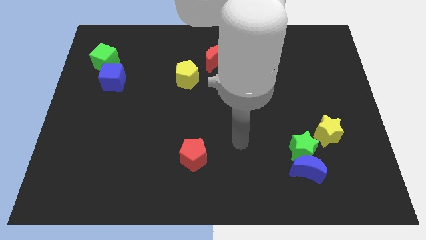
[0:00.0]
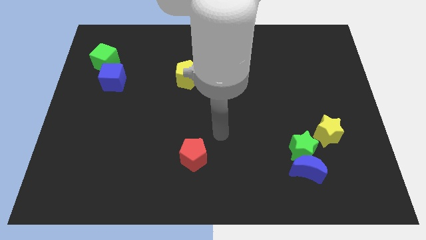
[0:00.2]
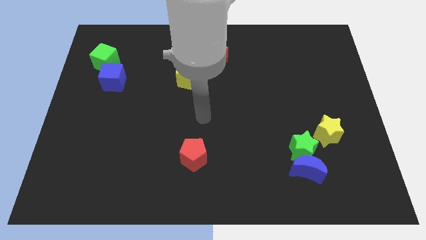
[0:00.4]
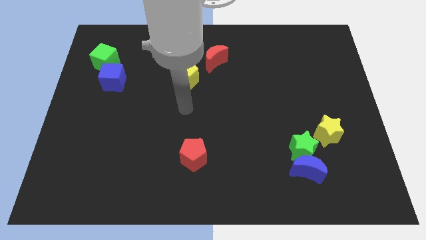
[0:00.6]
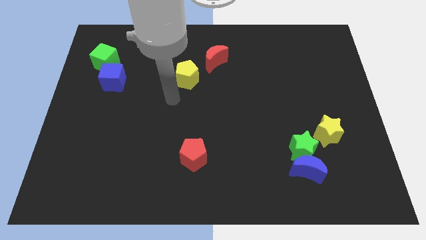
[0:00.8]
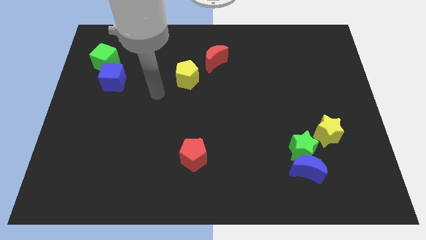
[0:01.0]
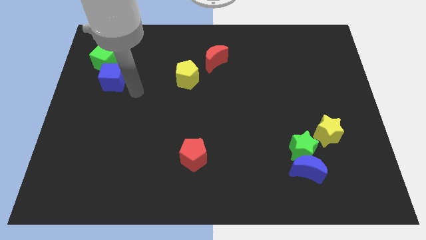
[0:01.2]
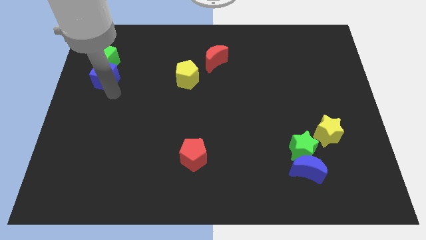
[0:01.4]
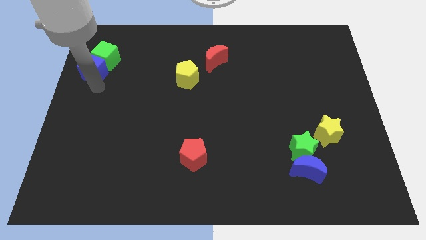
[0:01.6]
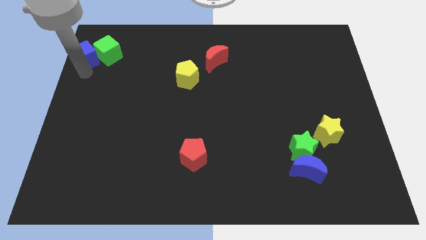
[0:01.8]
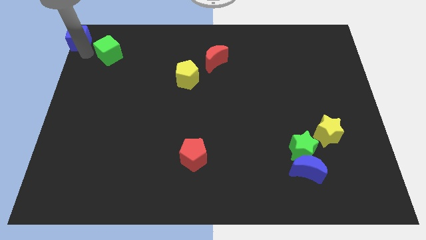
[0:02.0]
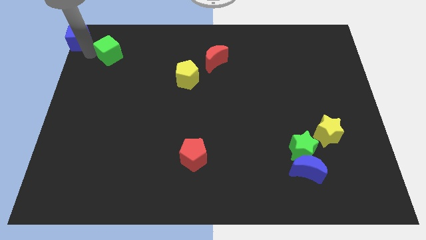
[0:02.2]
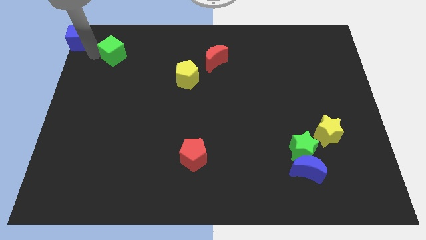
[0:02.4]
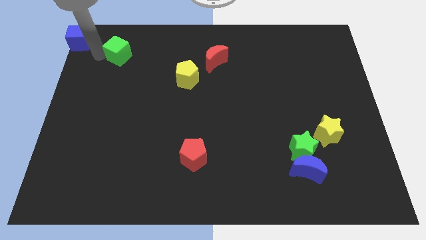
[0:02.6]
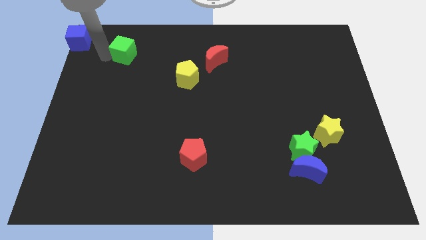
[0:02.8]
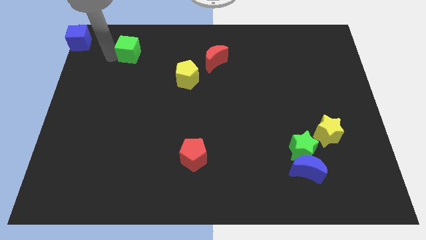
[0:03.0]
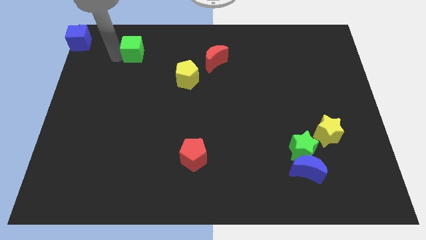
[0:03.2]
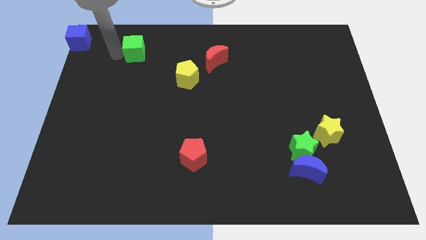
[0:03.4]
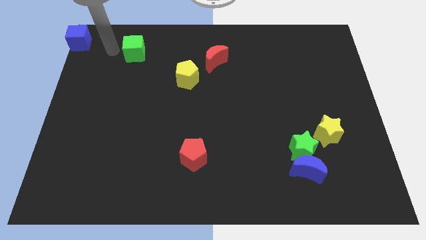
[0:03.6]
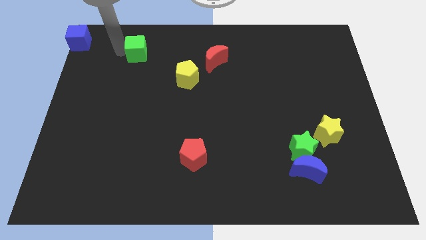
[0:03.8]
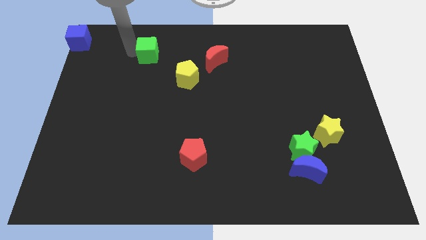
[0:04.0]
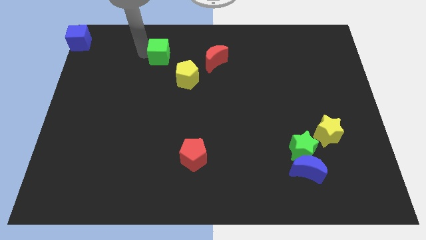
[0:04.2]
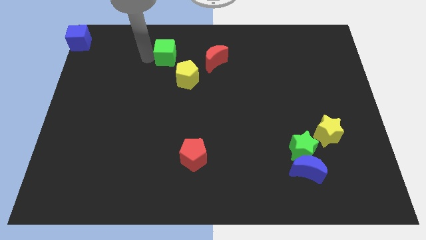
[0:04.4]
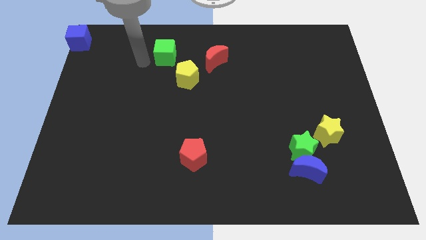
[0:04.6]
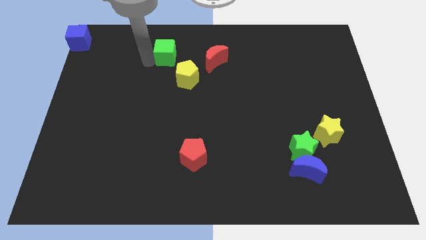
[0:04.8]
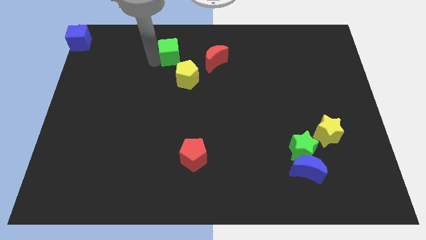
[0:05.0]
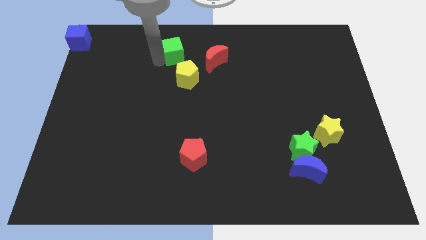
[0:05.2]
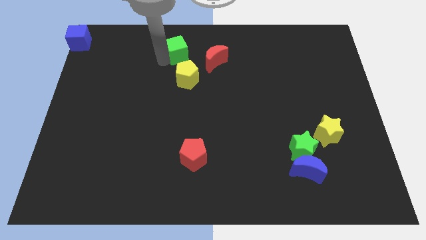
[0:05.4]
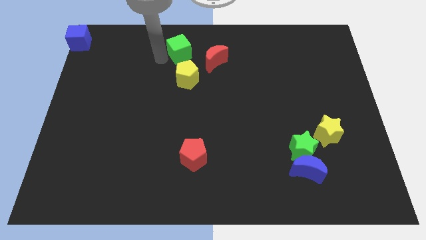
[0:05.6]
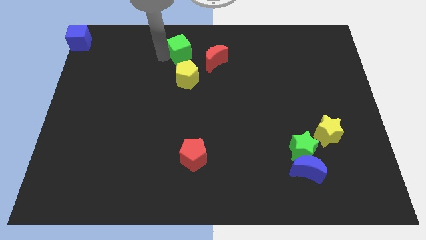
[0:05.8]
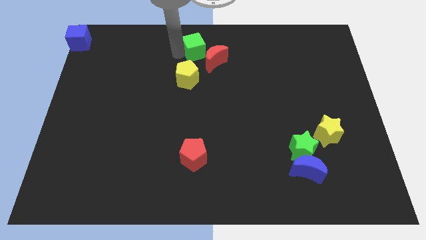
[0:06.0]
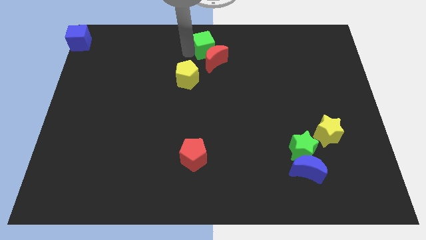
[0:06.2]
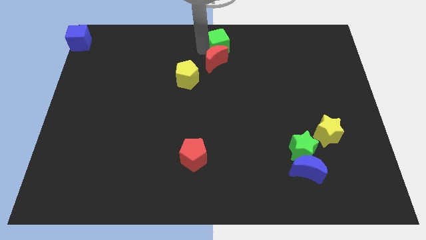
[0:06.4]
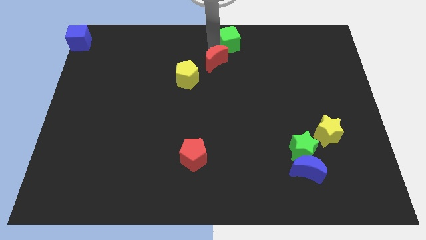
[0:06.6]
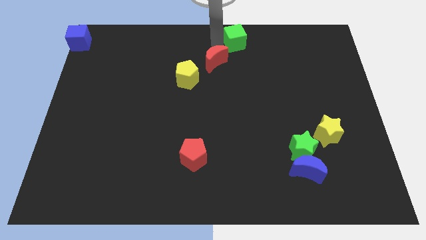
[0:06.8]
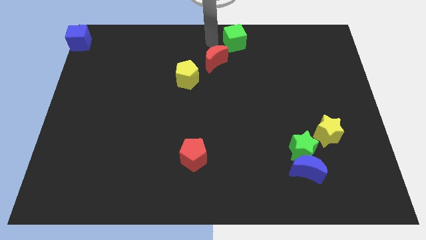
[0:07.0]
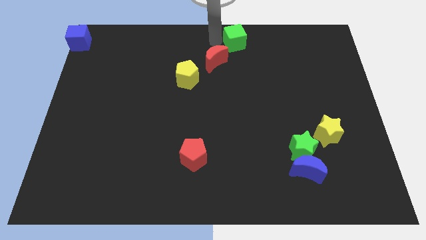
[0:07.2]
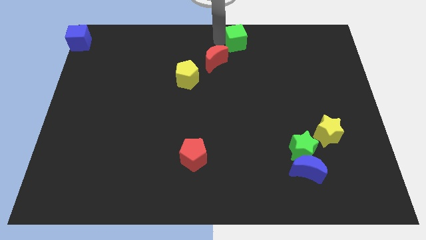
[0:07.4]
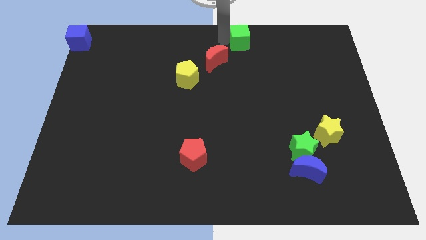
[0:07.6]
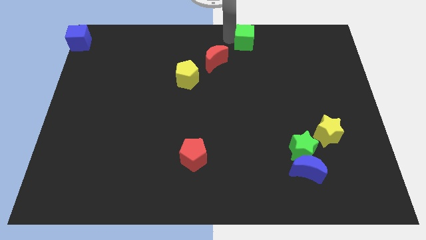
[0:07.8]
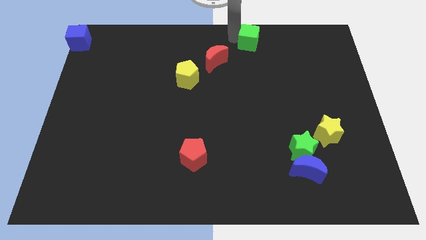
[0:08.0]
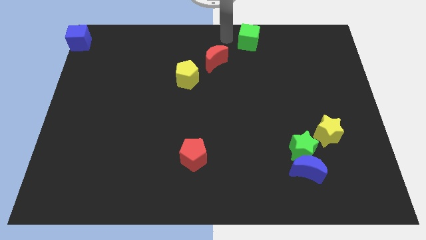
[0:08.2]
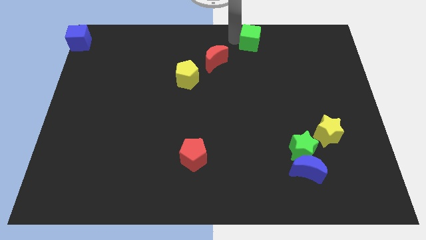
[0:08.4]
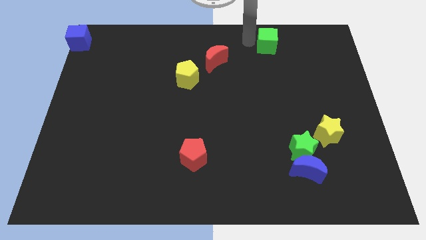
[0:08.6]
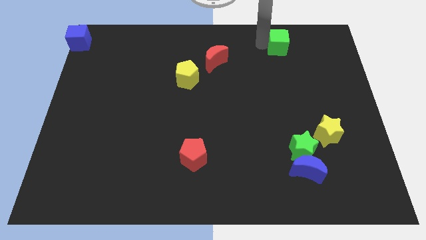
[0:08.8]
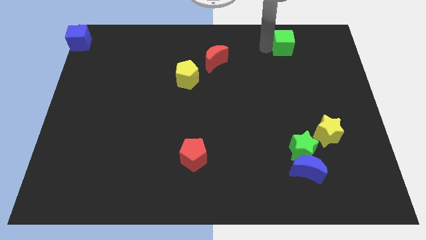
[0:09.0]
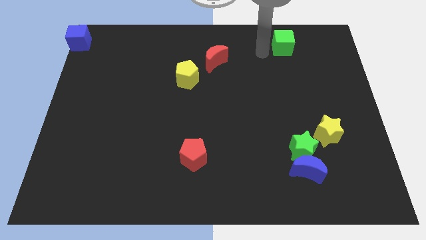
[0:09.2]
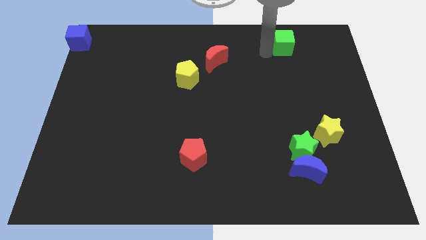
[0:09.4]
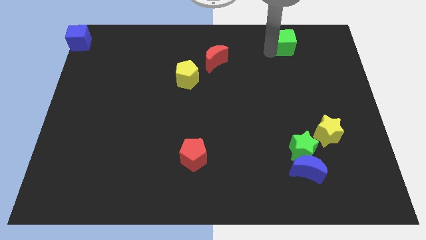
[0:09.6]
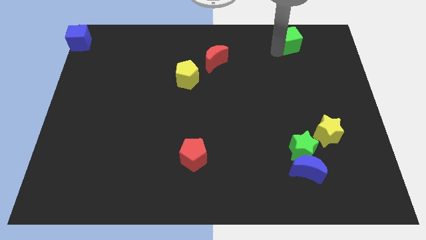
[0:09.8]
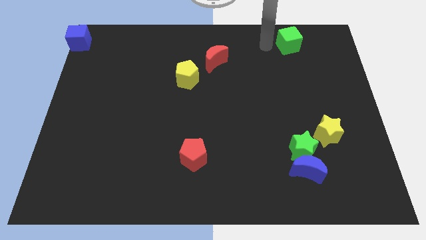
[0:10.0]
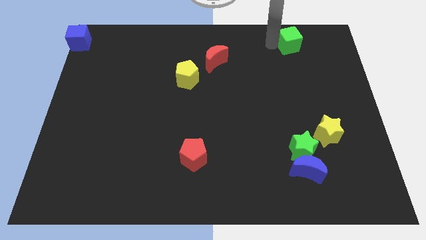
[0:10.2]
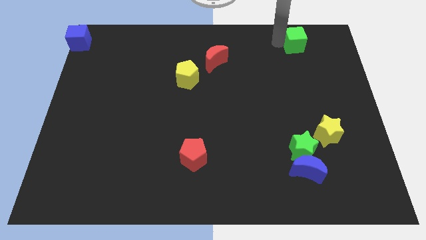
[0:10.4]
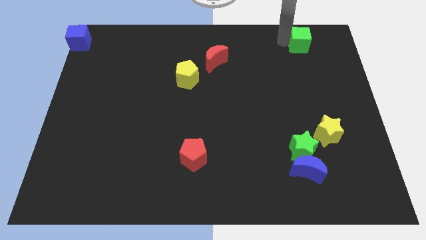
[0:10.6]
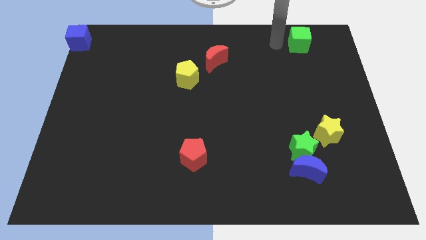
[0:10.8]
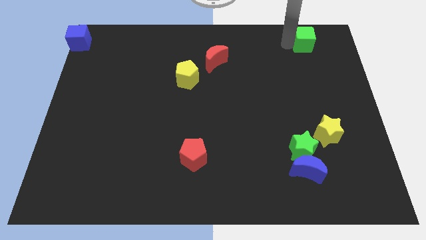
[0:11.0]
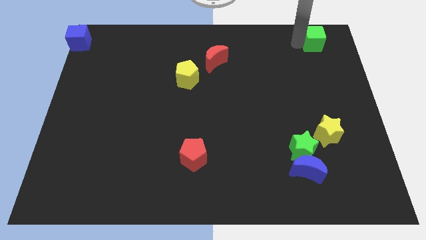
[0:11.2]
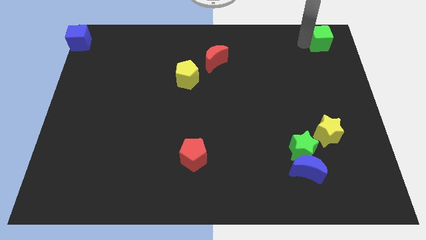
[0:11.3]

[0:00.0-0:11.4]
put the green cube to the top right corner
